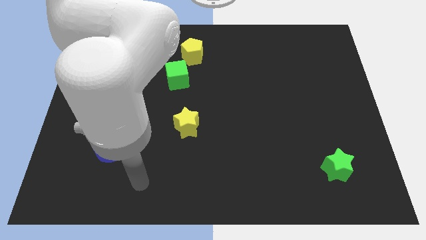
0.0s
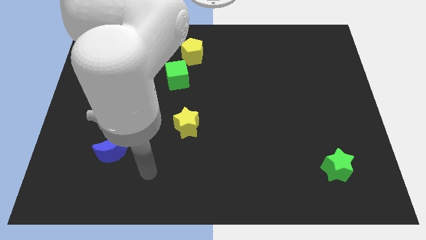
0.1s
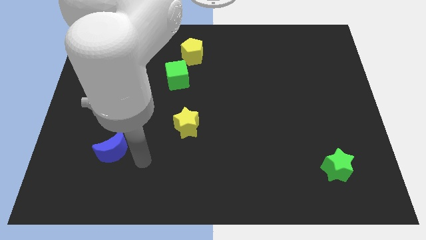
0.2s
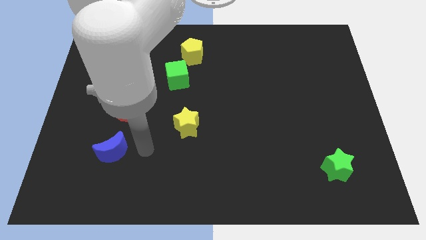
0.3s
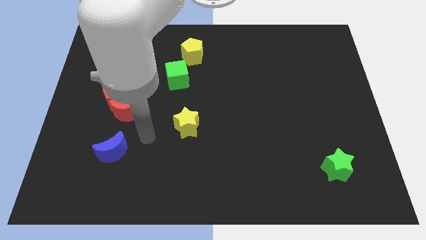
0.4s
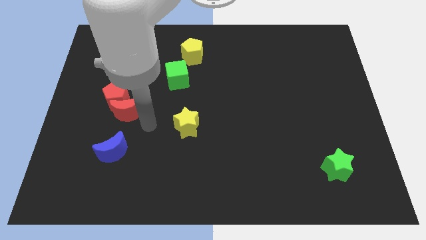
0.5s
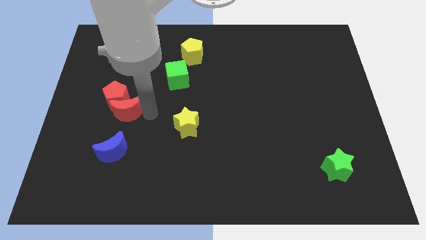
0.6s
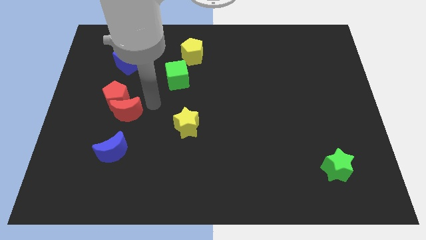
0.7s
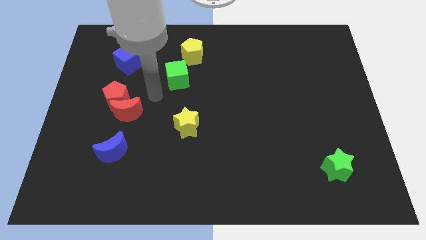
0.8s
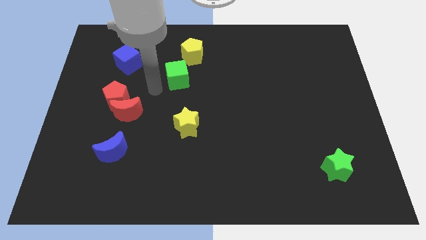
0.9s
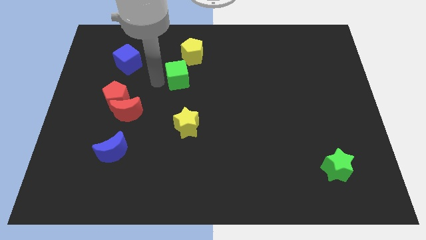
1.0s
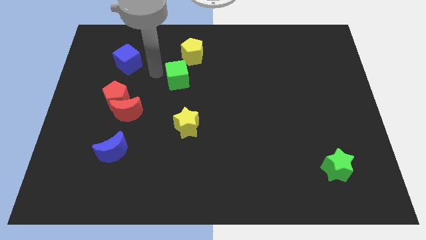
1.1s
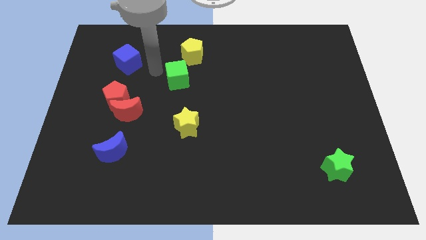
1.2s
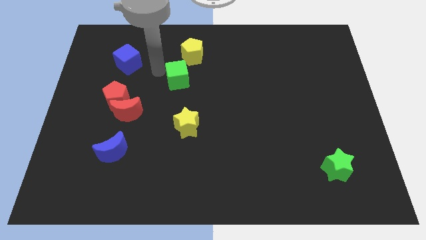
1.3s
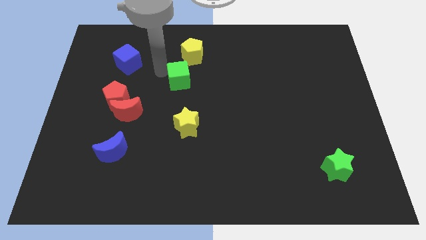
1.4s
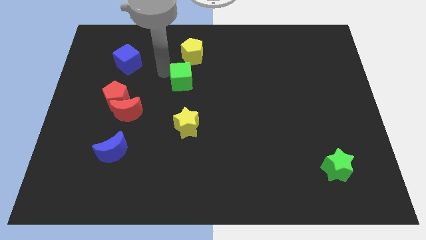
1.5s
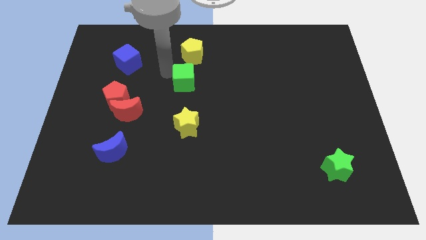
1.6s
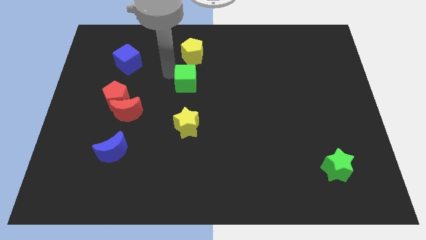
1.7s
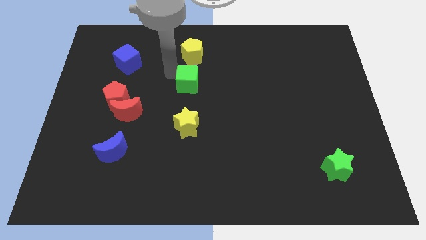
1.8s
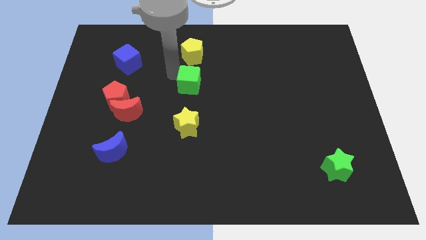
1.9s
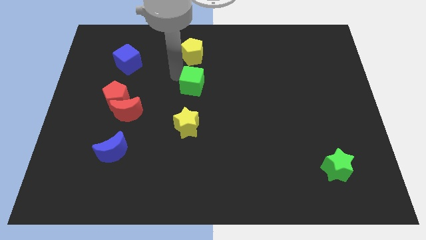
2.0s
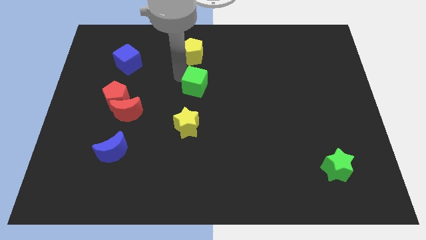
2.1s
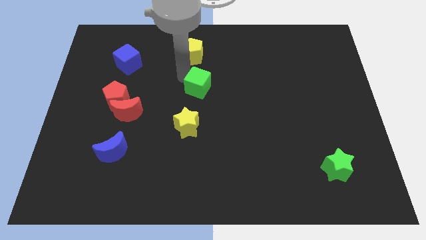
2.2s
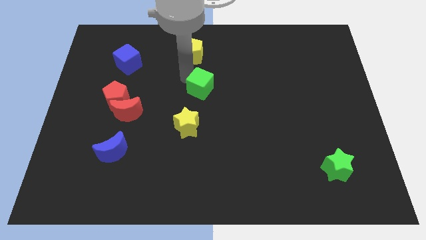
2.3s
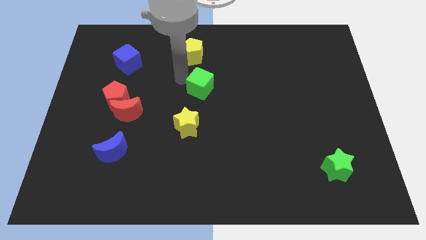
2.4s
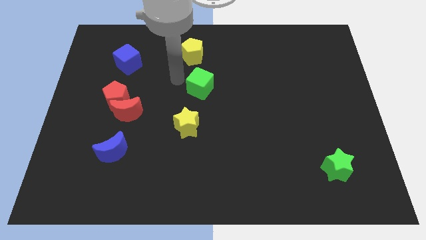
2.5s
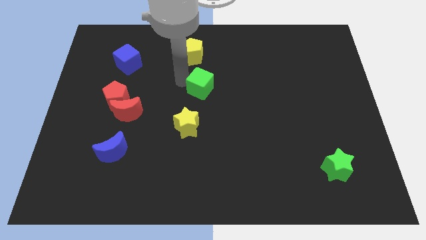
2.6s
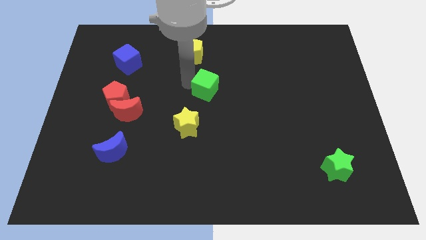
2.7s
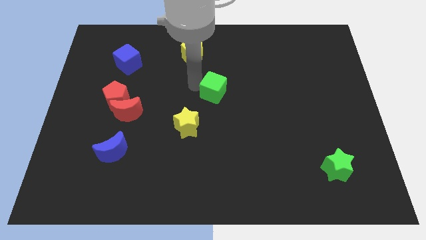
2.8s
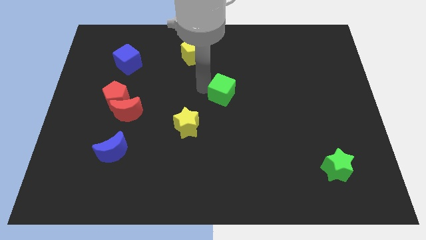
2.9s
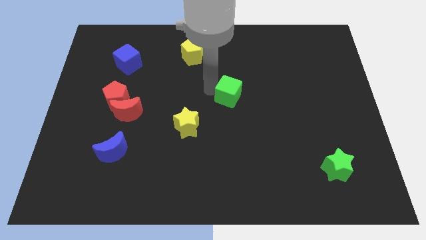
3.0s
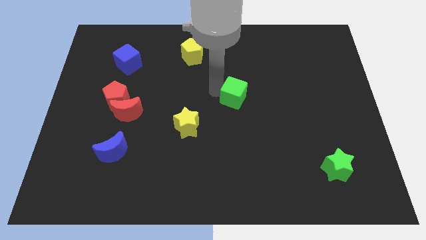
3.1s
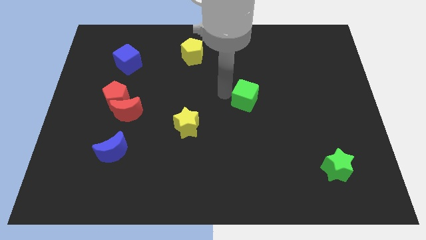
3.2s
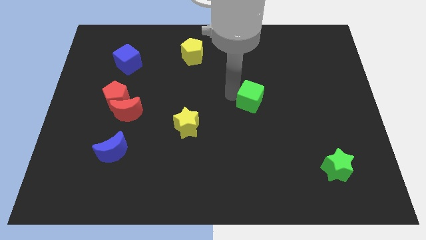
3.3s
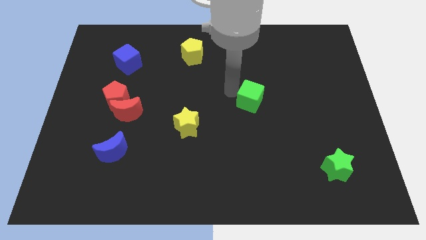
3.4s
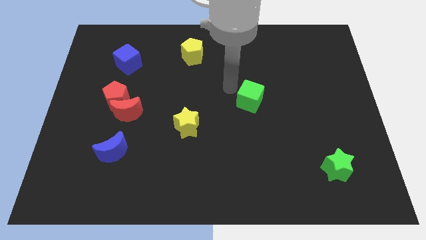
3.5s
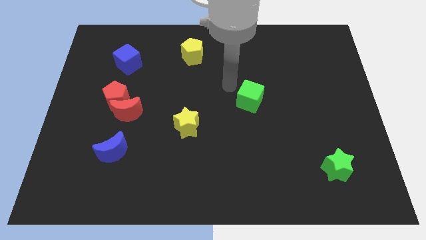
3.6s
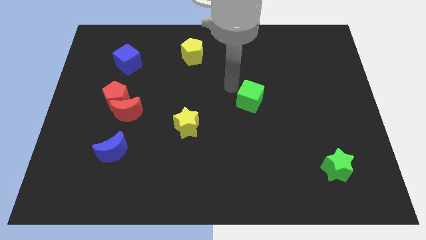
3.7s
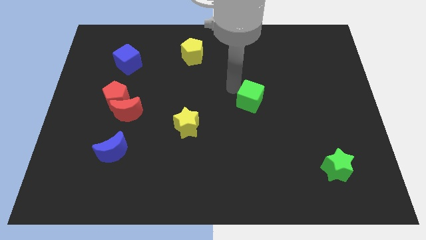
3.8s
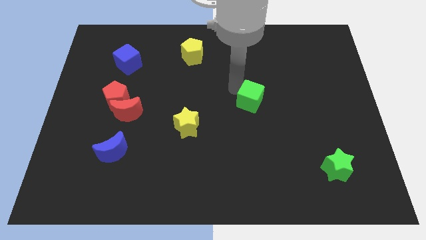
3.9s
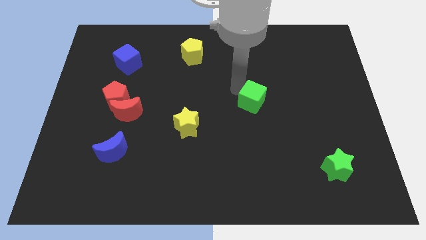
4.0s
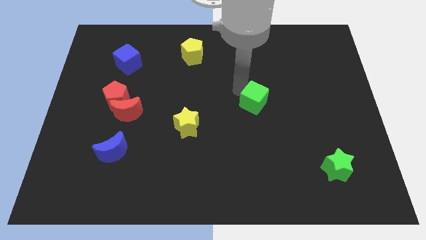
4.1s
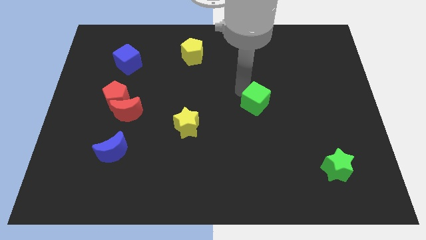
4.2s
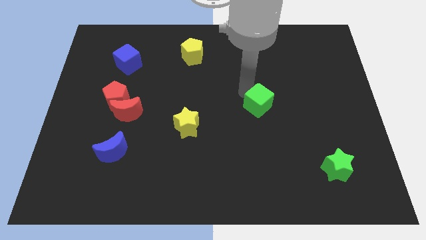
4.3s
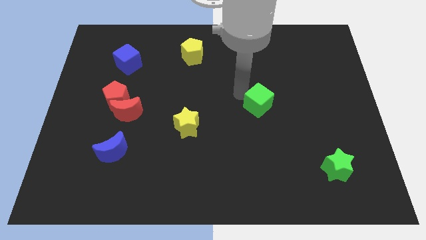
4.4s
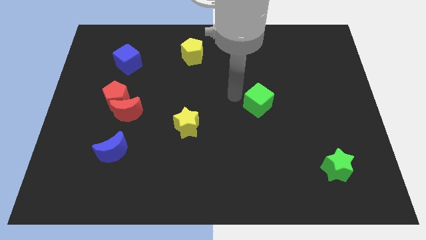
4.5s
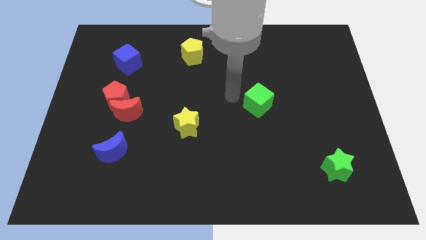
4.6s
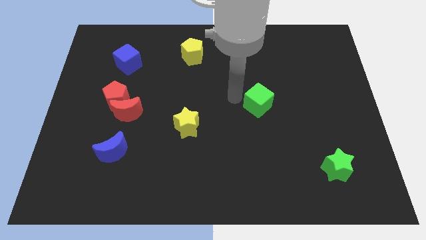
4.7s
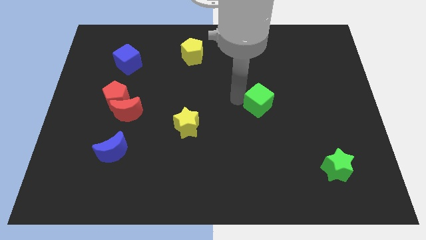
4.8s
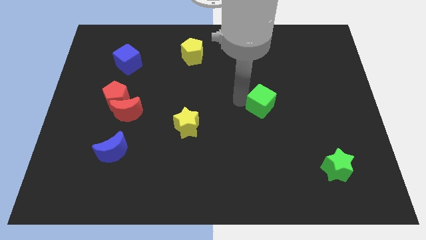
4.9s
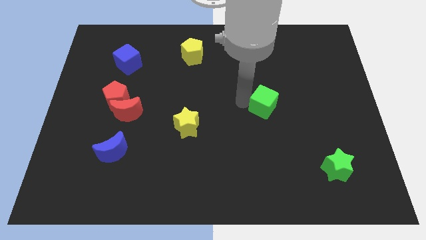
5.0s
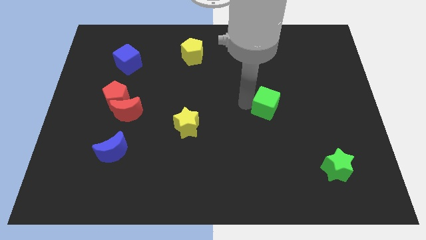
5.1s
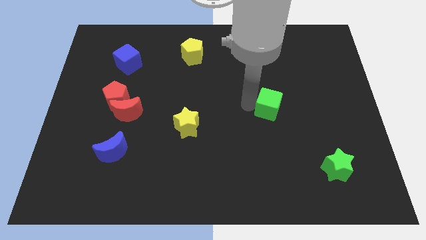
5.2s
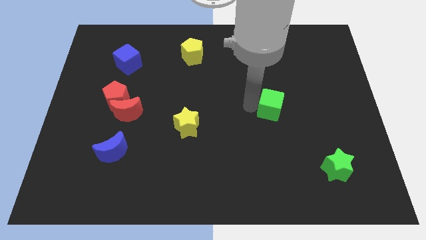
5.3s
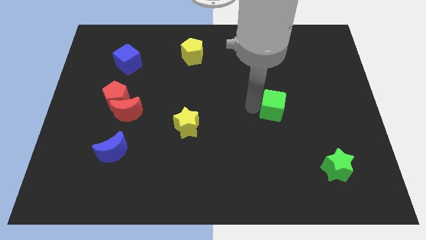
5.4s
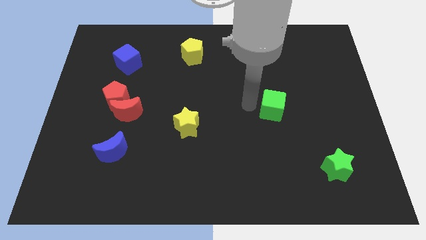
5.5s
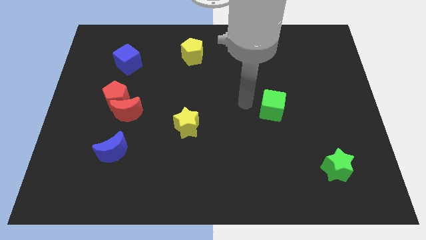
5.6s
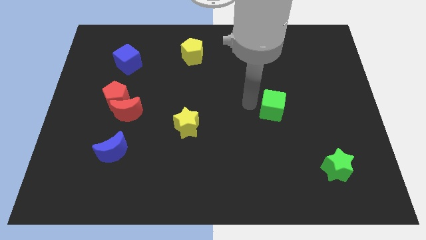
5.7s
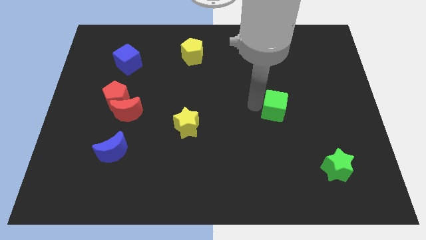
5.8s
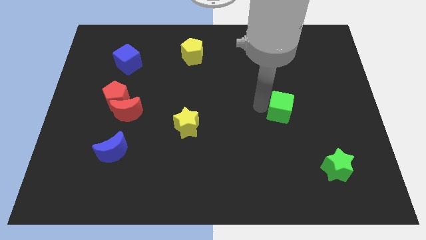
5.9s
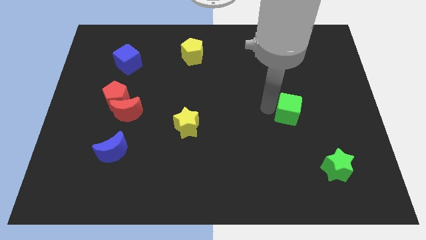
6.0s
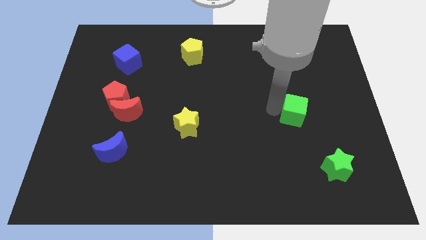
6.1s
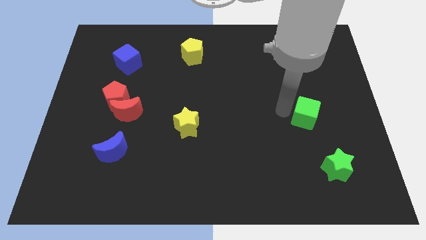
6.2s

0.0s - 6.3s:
push the green cube above the green star
